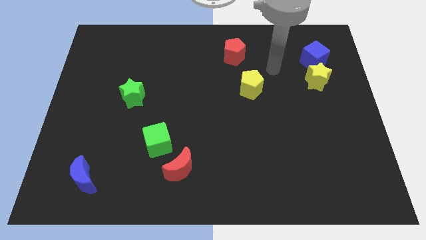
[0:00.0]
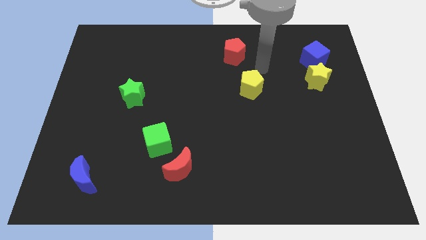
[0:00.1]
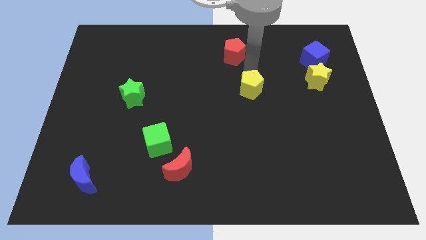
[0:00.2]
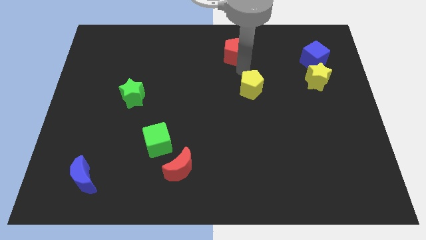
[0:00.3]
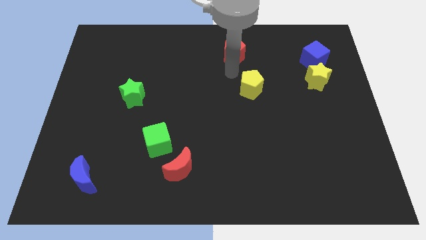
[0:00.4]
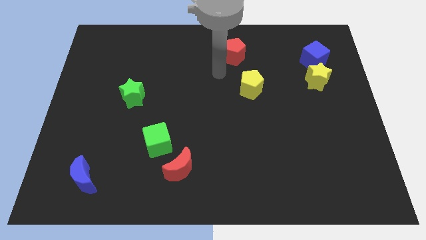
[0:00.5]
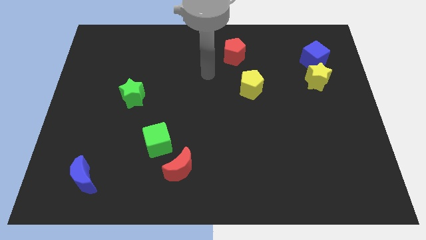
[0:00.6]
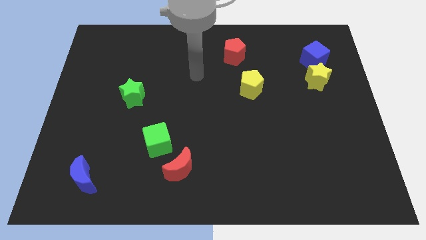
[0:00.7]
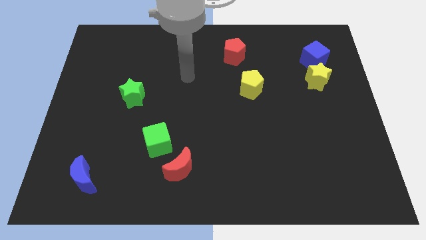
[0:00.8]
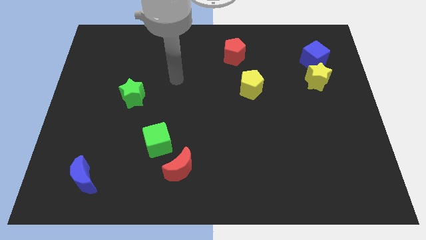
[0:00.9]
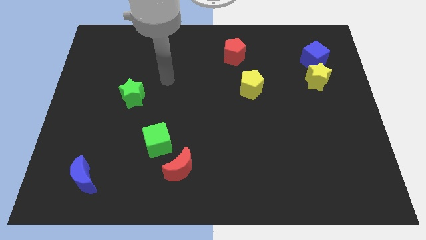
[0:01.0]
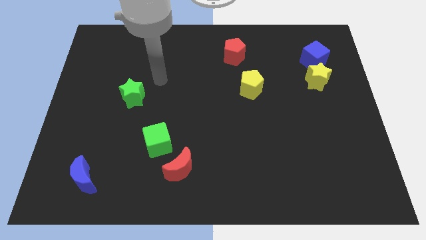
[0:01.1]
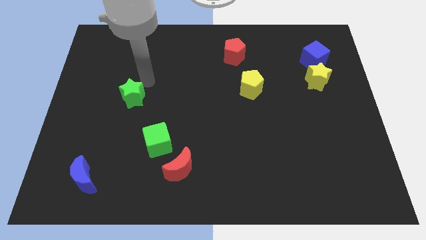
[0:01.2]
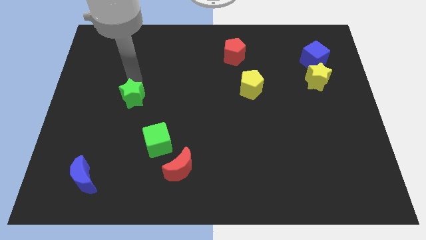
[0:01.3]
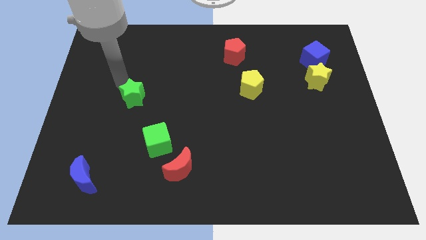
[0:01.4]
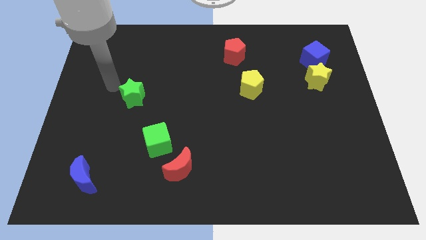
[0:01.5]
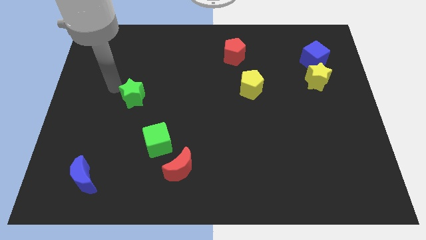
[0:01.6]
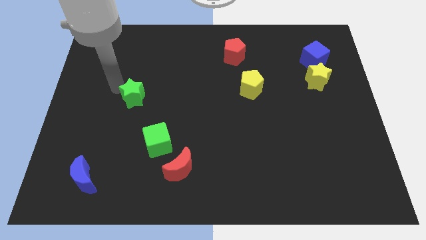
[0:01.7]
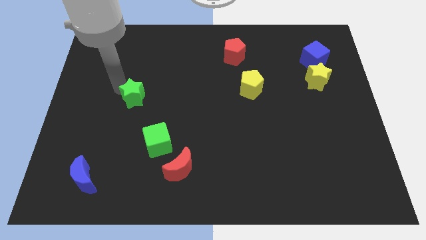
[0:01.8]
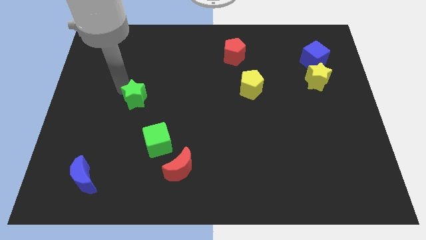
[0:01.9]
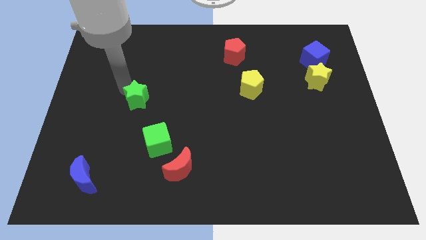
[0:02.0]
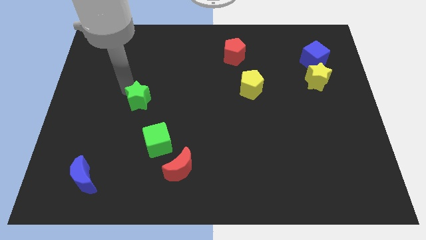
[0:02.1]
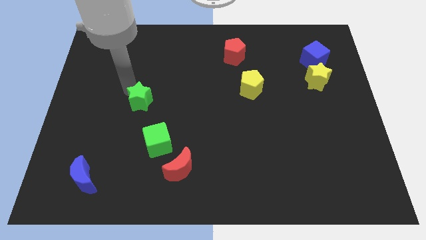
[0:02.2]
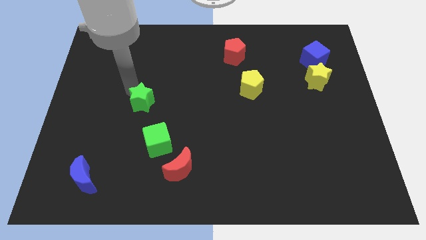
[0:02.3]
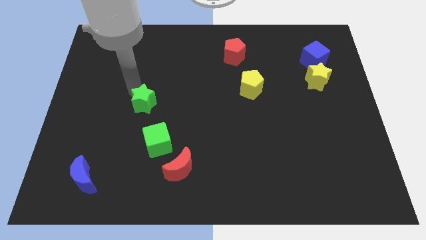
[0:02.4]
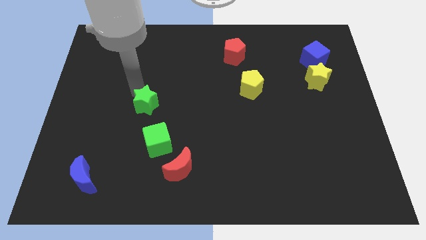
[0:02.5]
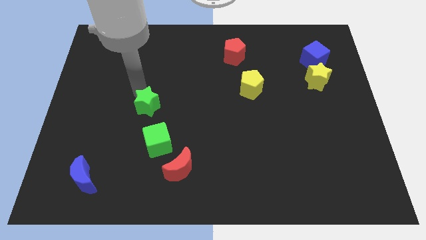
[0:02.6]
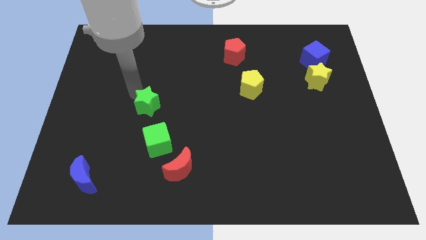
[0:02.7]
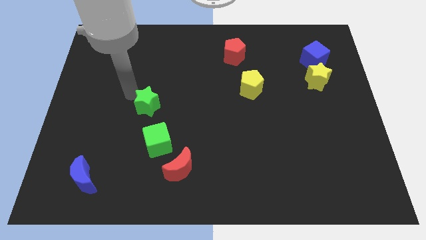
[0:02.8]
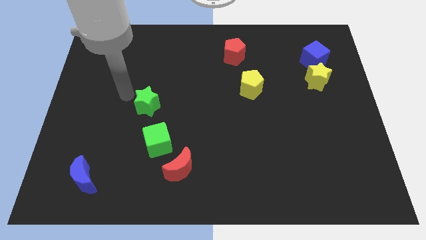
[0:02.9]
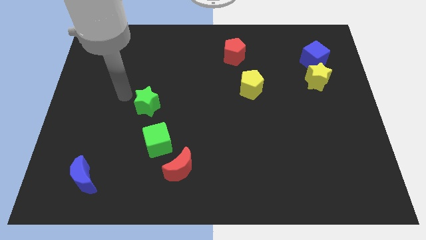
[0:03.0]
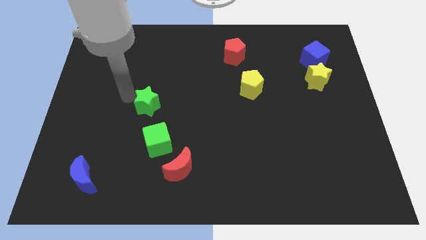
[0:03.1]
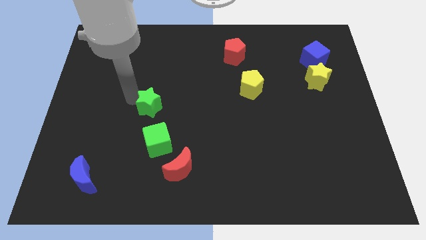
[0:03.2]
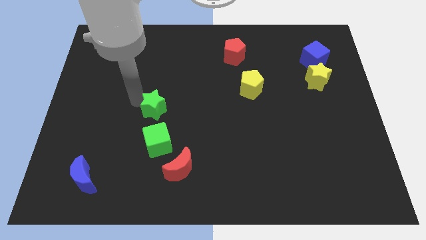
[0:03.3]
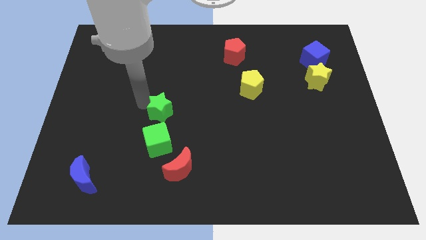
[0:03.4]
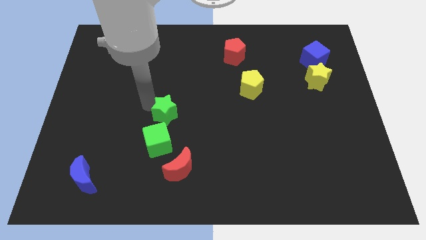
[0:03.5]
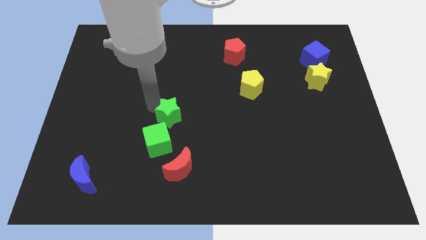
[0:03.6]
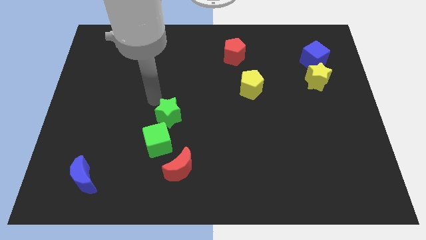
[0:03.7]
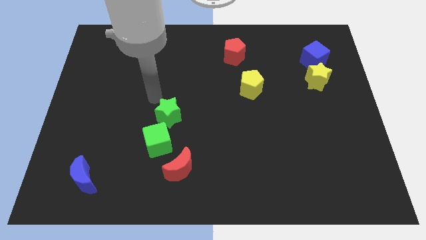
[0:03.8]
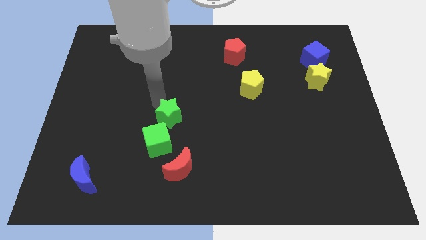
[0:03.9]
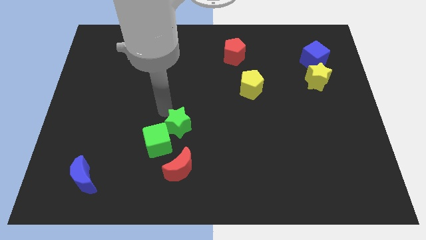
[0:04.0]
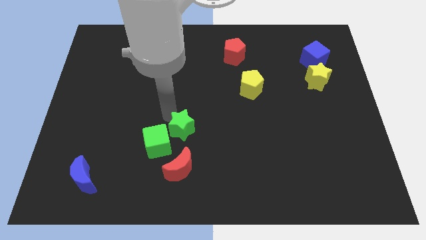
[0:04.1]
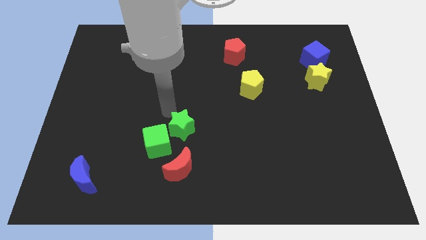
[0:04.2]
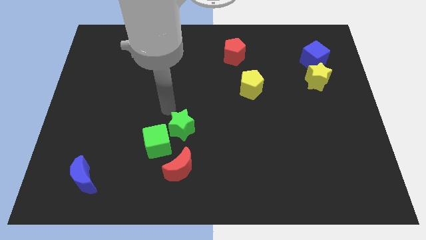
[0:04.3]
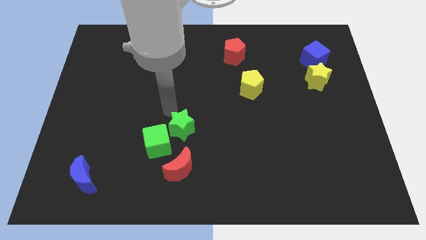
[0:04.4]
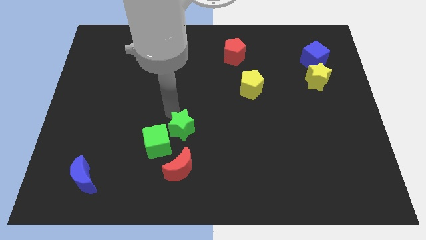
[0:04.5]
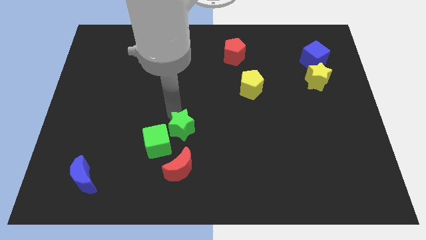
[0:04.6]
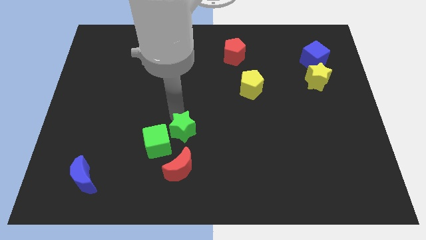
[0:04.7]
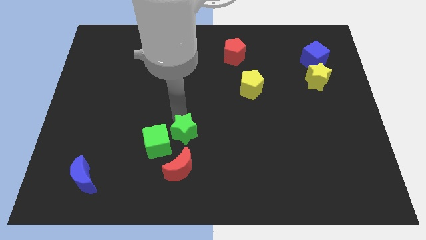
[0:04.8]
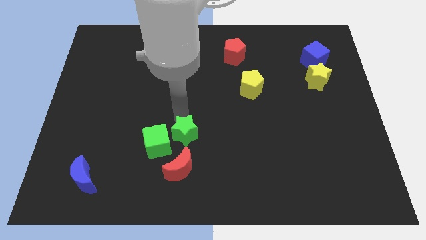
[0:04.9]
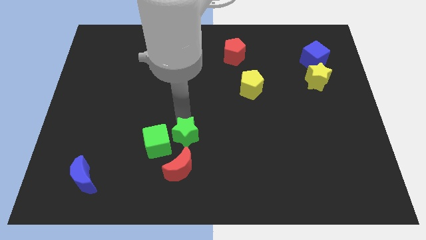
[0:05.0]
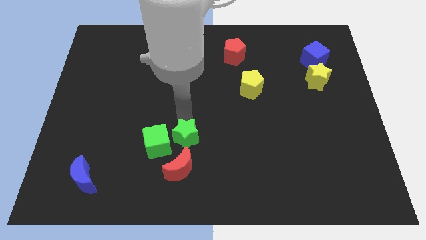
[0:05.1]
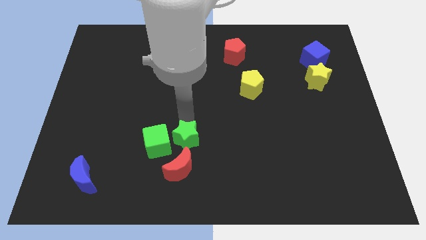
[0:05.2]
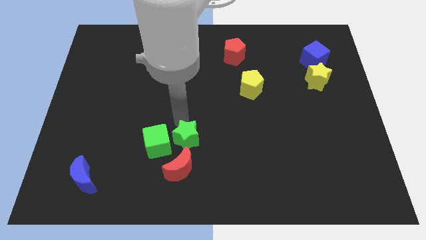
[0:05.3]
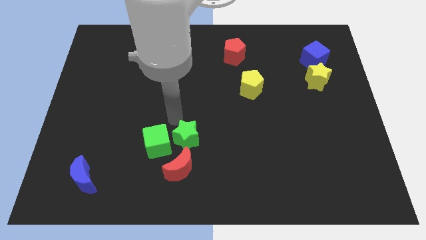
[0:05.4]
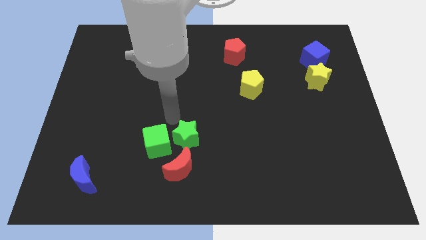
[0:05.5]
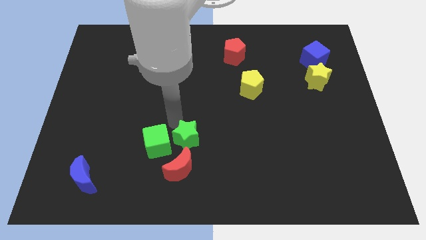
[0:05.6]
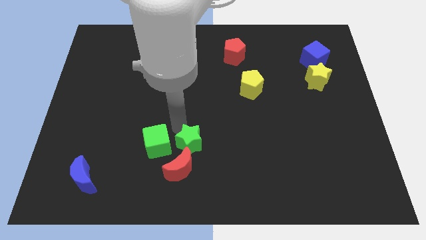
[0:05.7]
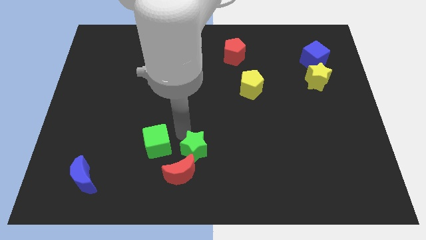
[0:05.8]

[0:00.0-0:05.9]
push the green star down and right diagonally

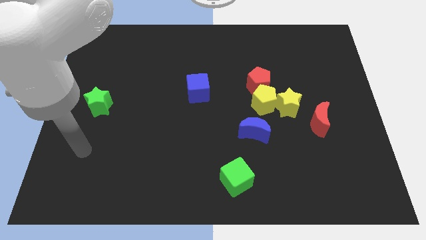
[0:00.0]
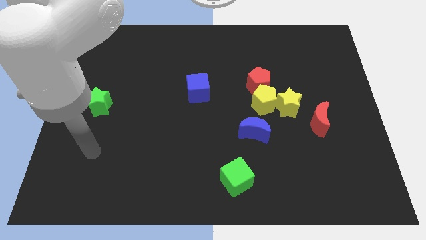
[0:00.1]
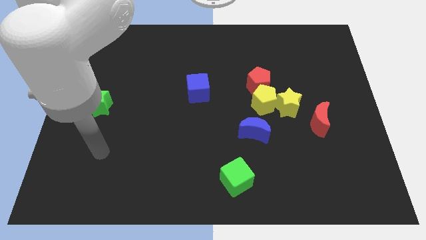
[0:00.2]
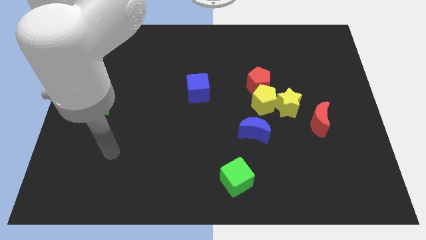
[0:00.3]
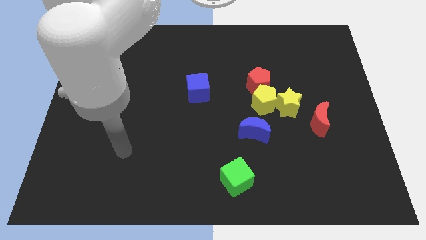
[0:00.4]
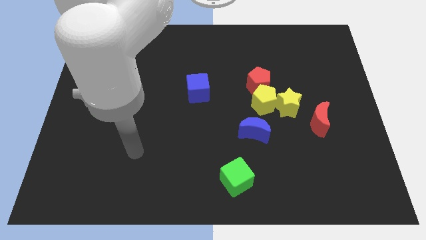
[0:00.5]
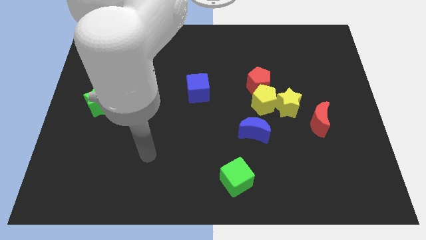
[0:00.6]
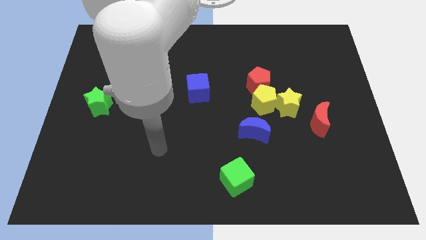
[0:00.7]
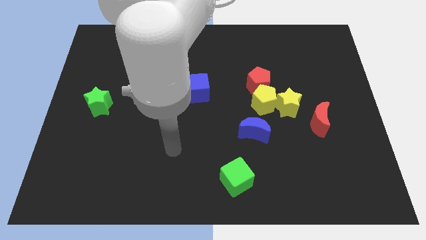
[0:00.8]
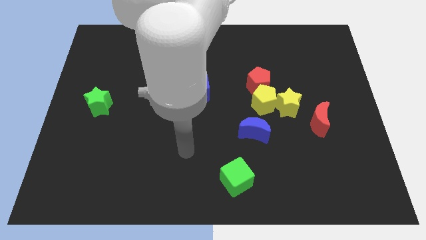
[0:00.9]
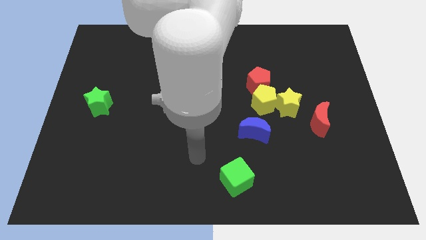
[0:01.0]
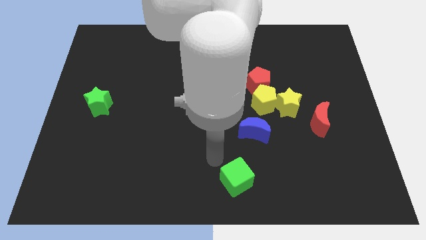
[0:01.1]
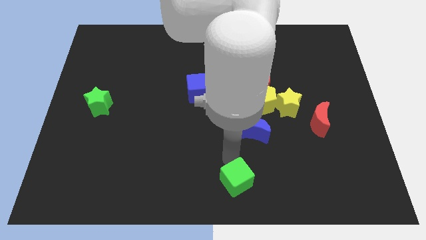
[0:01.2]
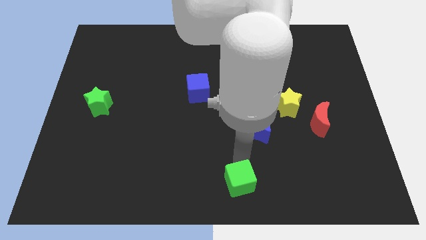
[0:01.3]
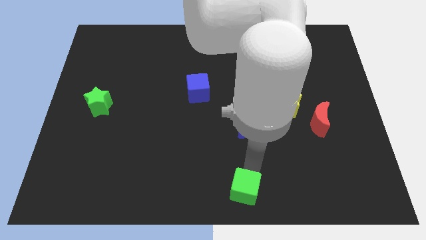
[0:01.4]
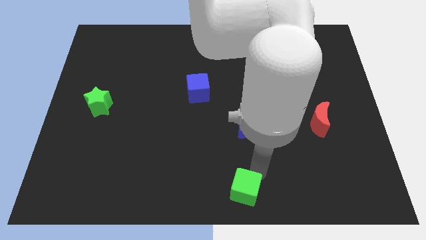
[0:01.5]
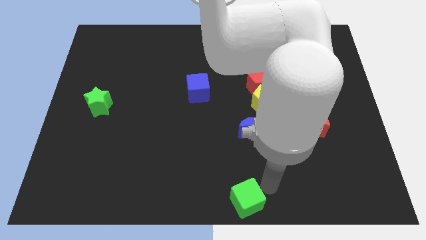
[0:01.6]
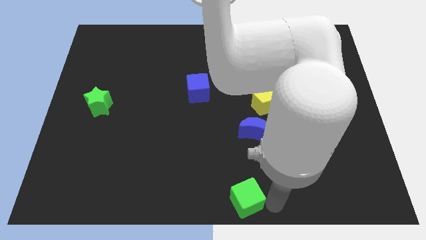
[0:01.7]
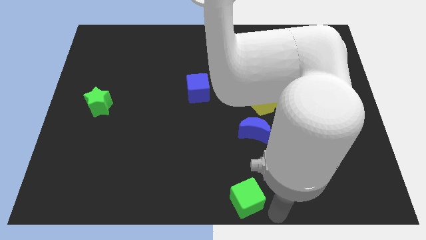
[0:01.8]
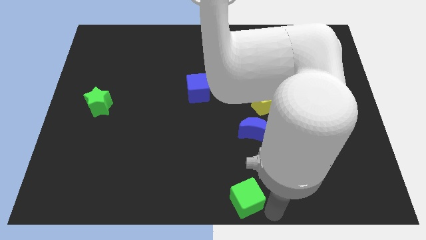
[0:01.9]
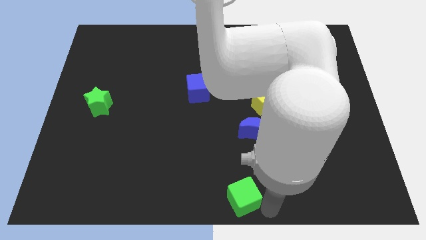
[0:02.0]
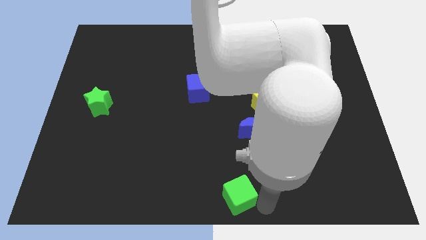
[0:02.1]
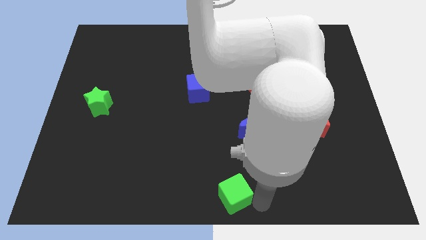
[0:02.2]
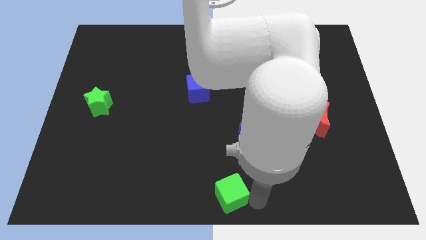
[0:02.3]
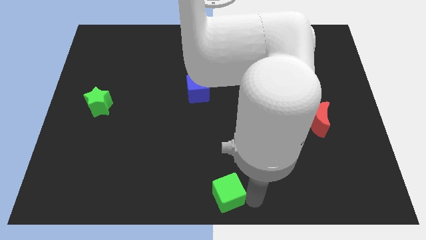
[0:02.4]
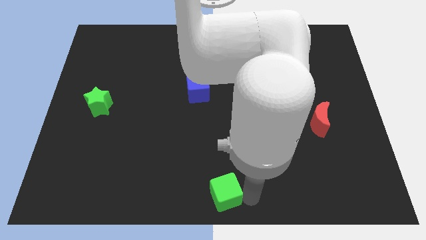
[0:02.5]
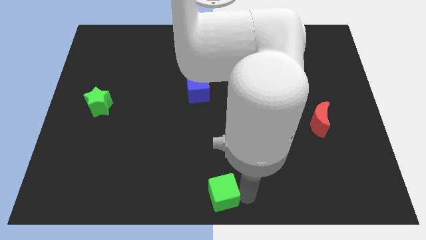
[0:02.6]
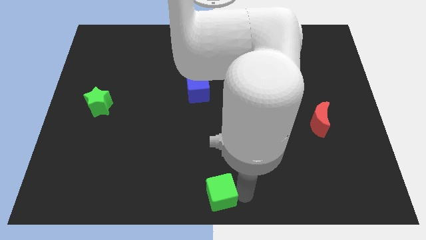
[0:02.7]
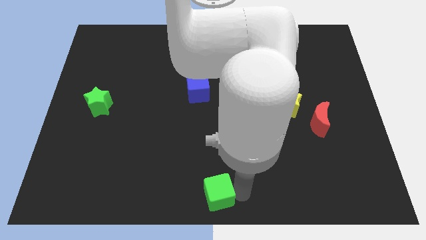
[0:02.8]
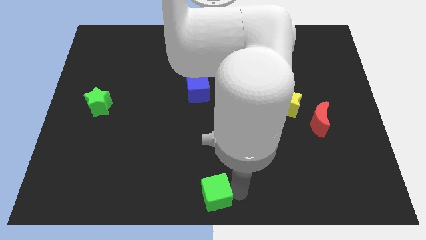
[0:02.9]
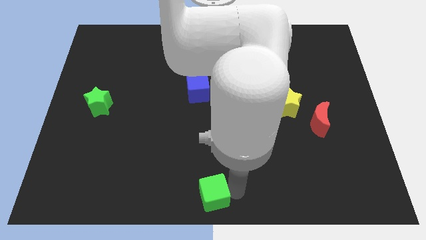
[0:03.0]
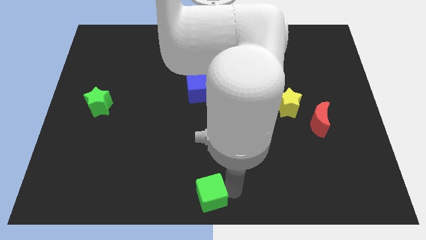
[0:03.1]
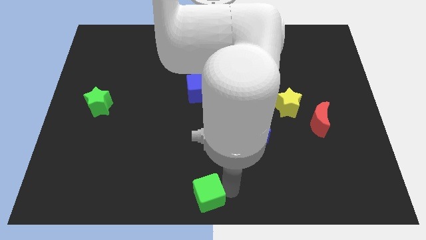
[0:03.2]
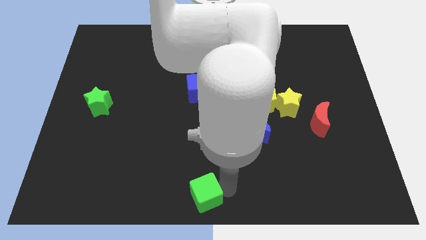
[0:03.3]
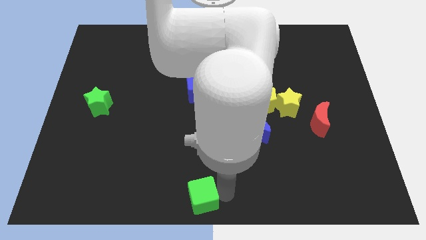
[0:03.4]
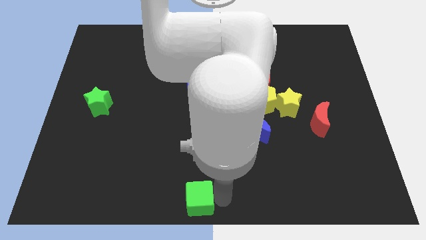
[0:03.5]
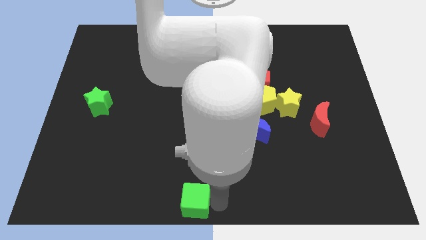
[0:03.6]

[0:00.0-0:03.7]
move the green cube to the left a little bit
